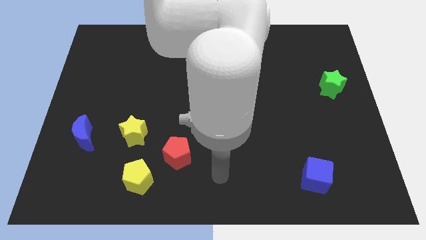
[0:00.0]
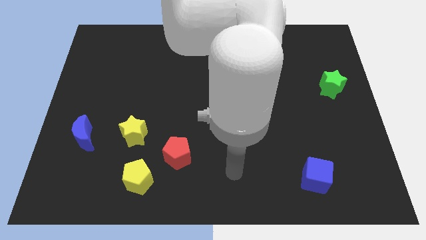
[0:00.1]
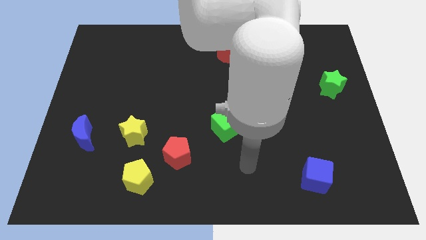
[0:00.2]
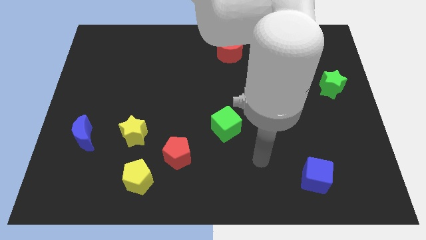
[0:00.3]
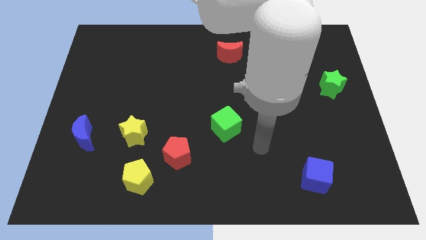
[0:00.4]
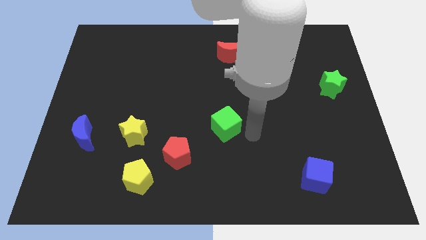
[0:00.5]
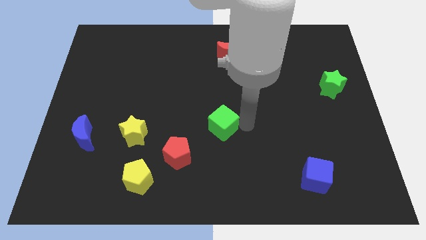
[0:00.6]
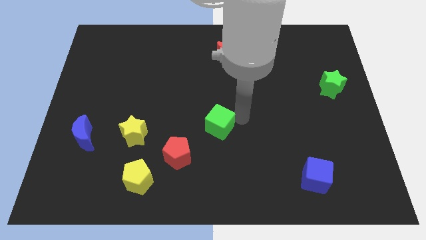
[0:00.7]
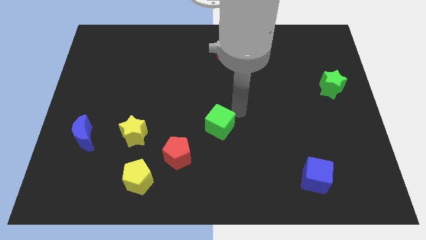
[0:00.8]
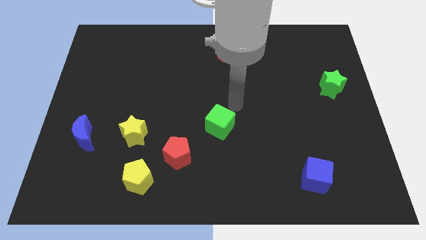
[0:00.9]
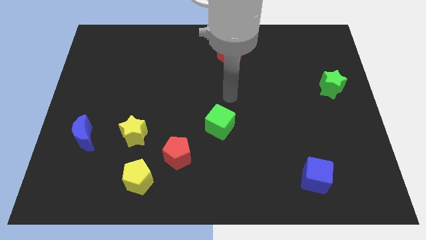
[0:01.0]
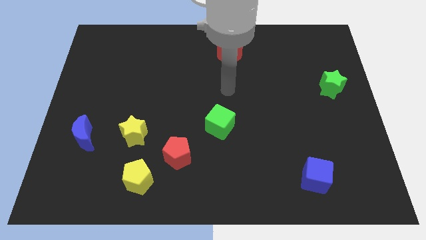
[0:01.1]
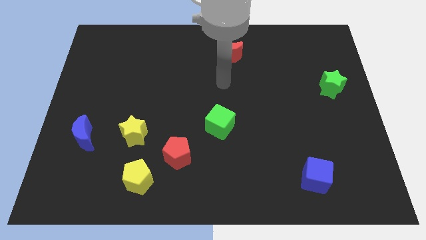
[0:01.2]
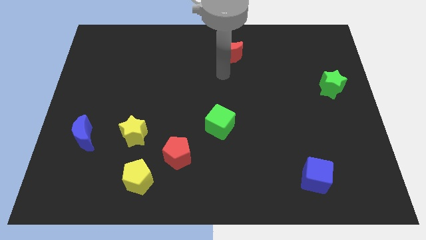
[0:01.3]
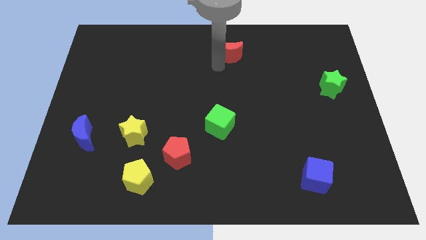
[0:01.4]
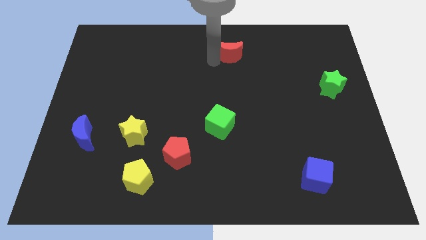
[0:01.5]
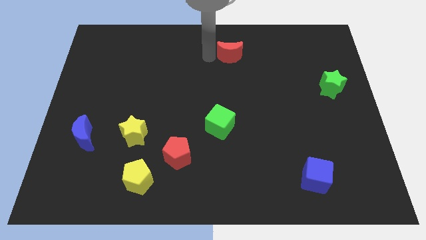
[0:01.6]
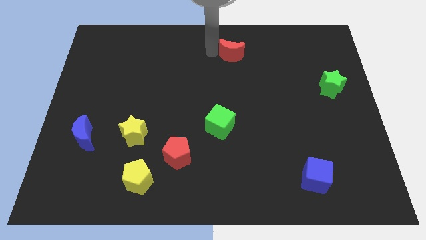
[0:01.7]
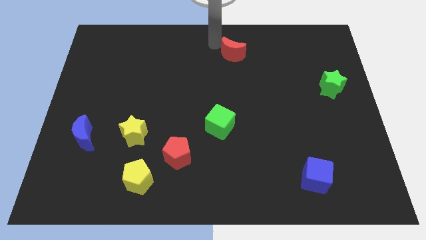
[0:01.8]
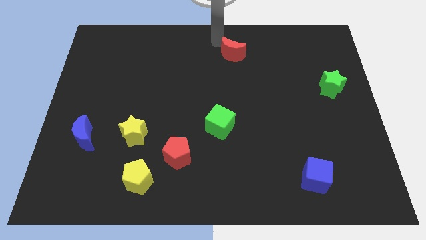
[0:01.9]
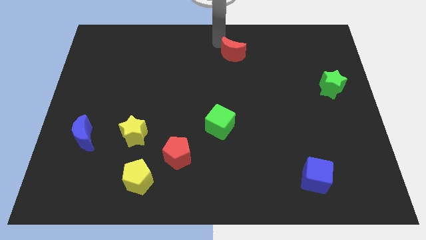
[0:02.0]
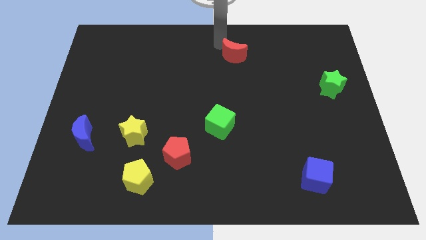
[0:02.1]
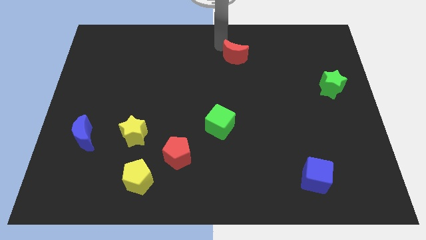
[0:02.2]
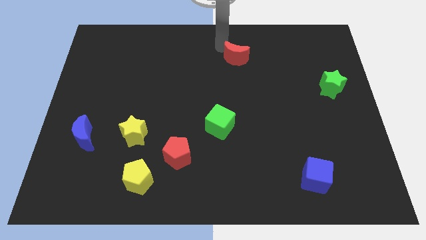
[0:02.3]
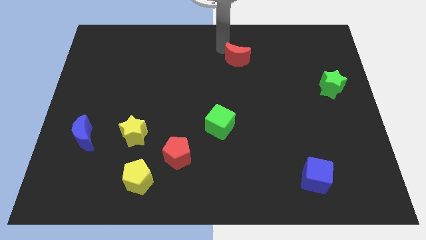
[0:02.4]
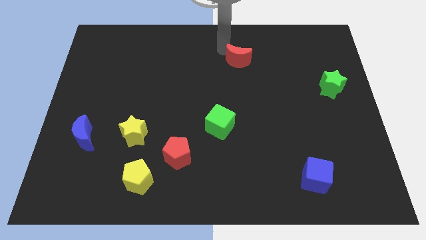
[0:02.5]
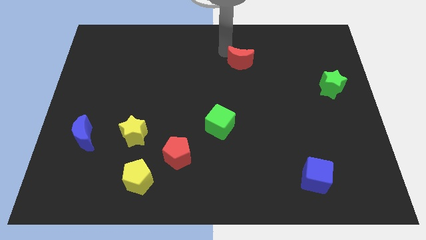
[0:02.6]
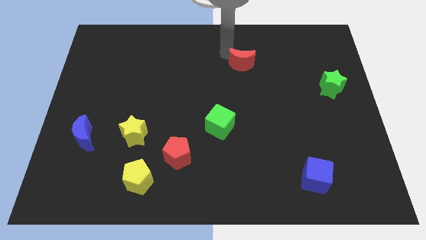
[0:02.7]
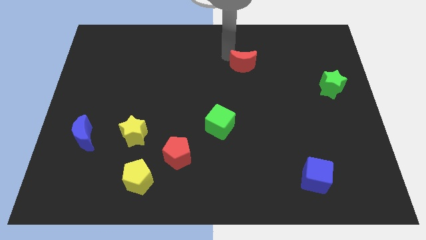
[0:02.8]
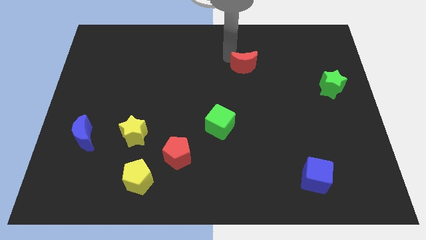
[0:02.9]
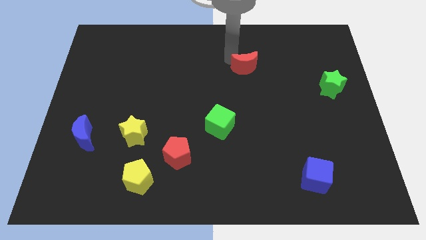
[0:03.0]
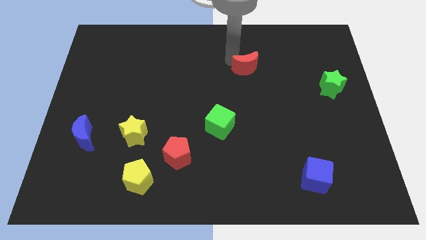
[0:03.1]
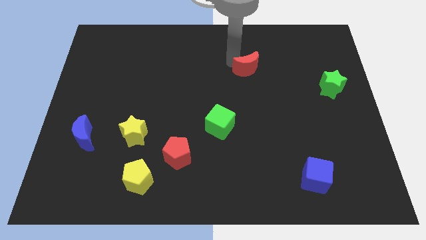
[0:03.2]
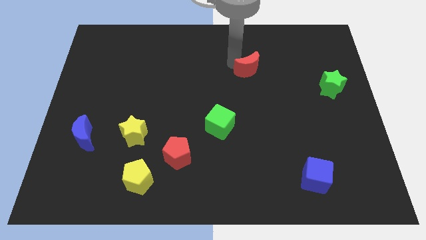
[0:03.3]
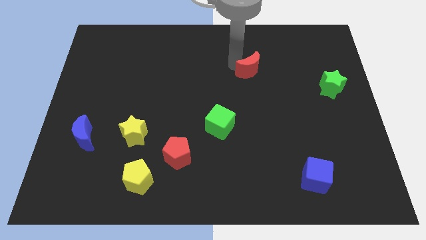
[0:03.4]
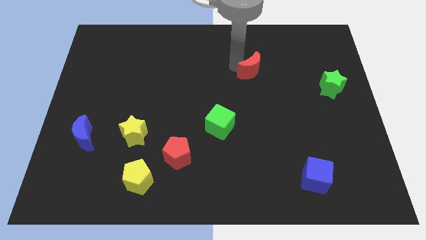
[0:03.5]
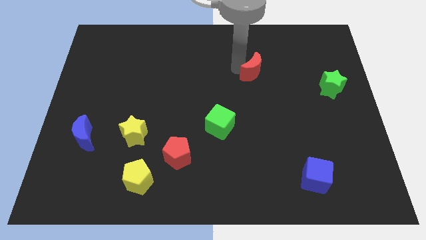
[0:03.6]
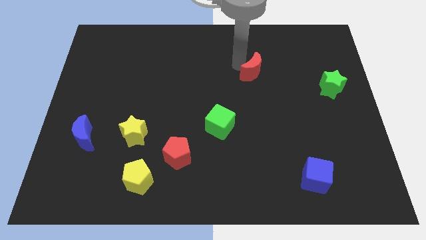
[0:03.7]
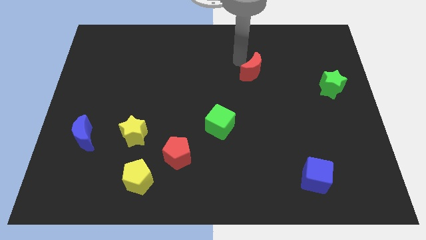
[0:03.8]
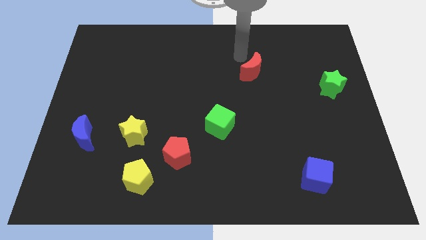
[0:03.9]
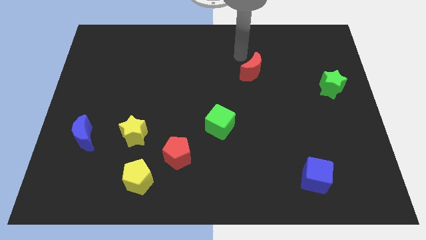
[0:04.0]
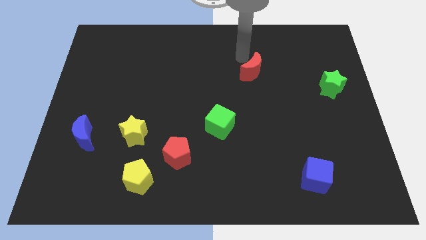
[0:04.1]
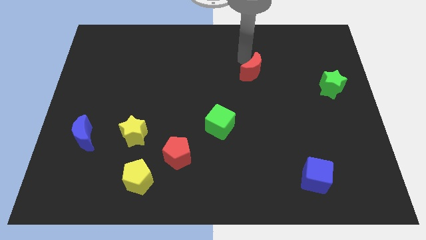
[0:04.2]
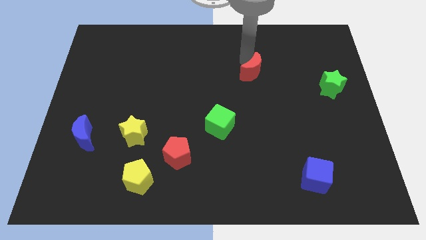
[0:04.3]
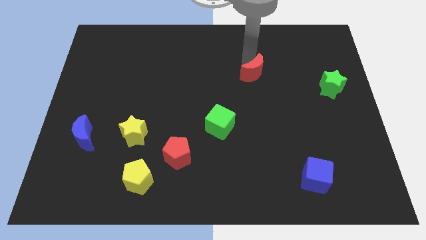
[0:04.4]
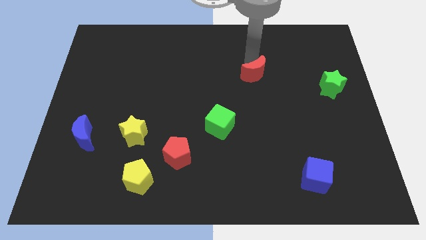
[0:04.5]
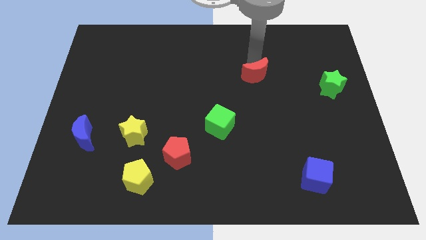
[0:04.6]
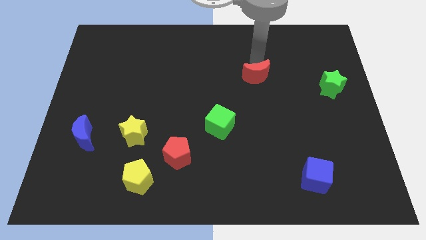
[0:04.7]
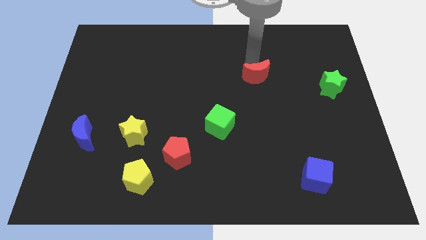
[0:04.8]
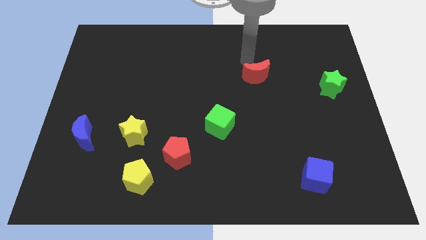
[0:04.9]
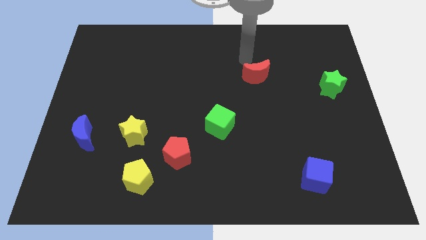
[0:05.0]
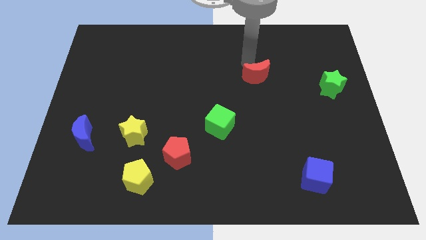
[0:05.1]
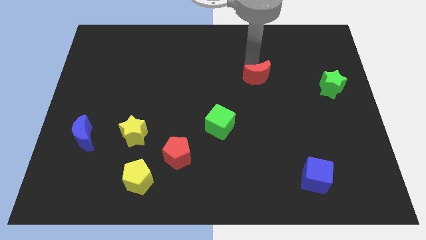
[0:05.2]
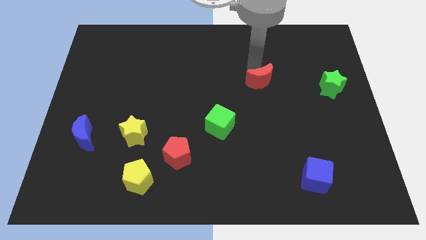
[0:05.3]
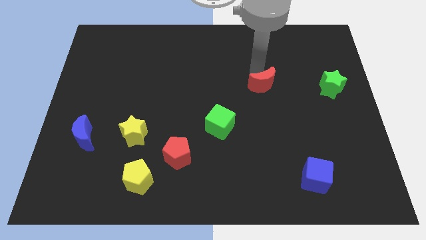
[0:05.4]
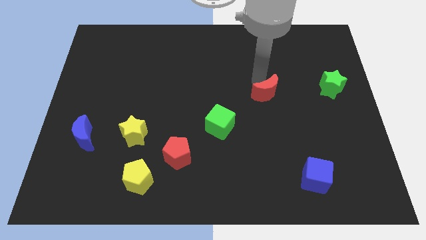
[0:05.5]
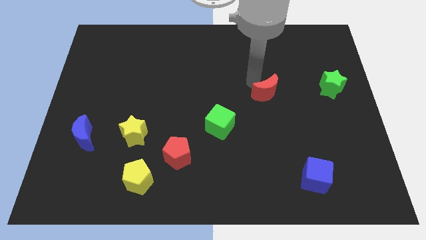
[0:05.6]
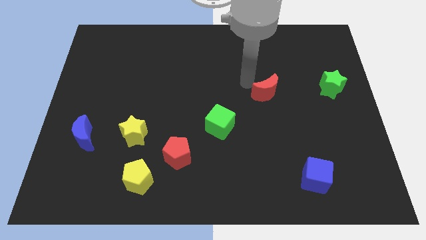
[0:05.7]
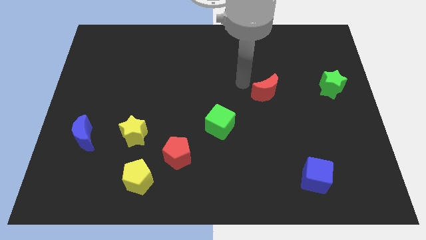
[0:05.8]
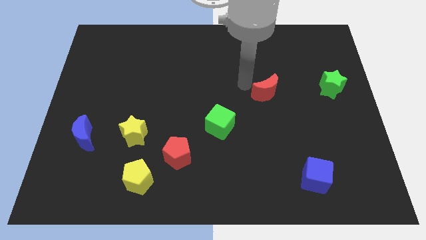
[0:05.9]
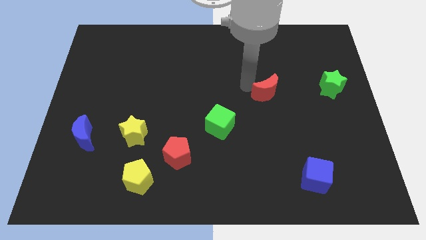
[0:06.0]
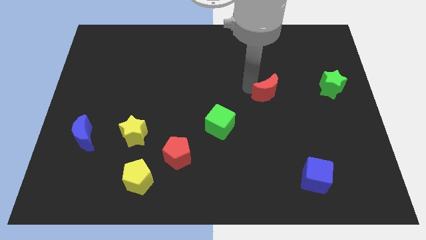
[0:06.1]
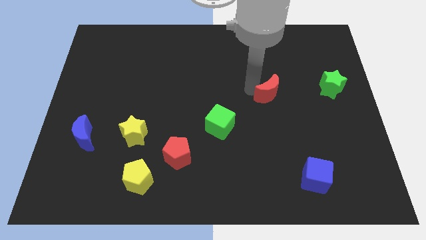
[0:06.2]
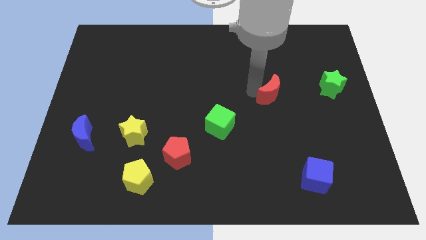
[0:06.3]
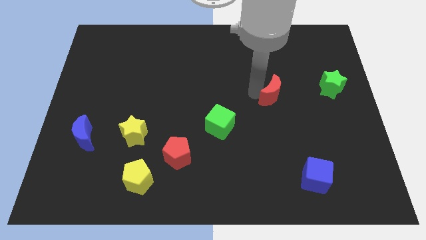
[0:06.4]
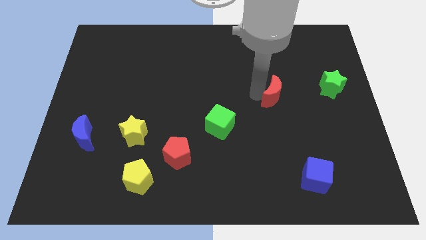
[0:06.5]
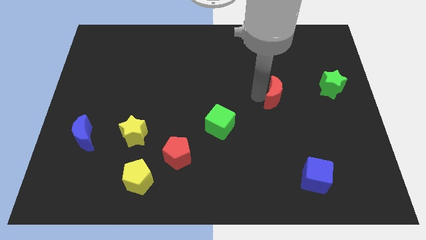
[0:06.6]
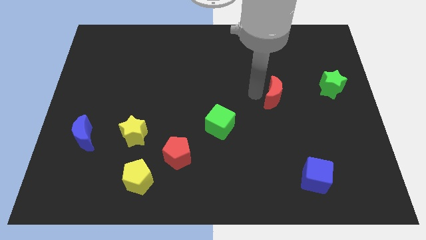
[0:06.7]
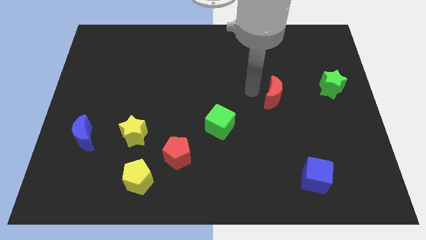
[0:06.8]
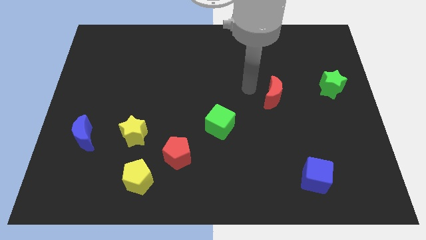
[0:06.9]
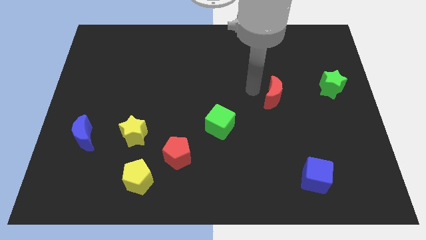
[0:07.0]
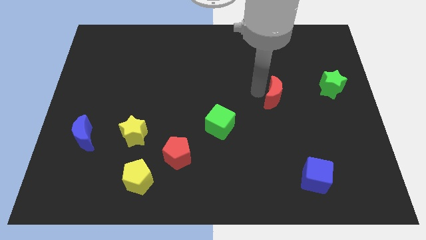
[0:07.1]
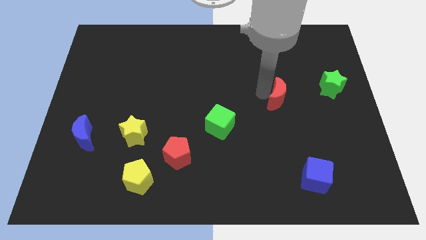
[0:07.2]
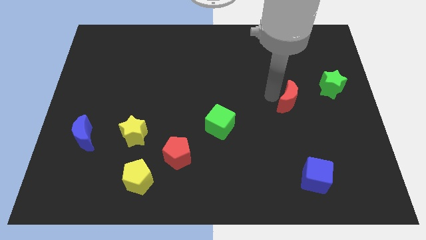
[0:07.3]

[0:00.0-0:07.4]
push the red moon down and then right

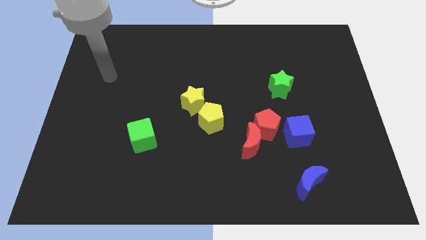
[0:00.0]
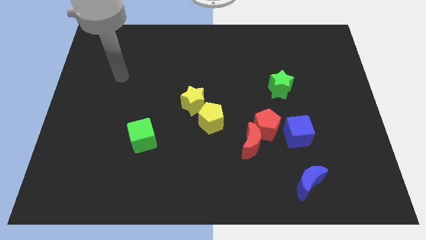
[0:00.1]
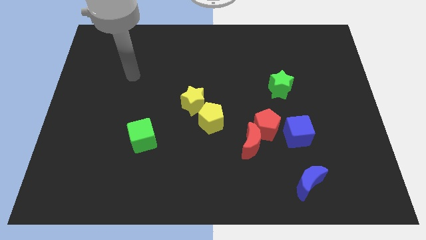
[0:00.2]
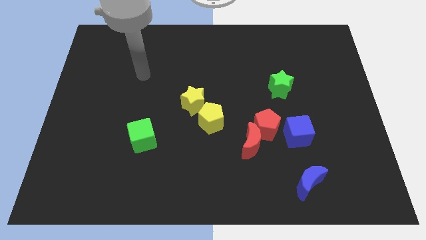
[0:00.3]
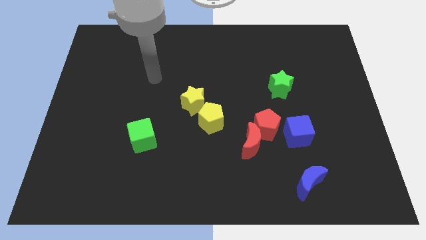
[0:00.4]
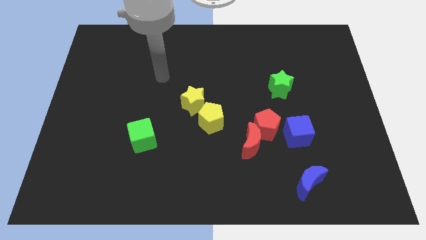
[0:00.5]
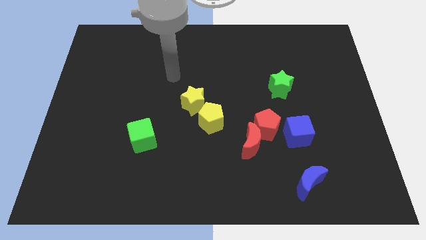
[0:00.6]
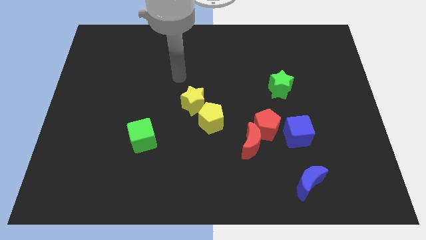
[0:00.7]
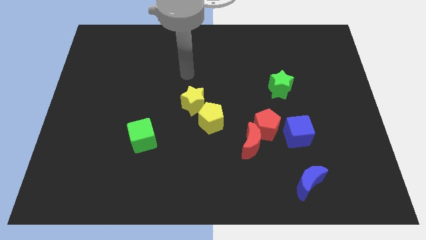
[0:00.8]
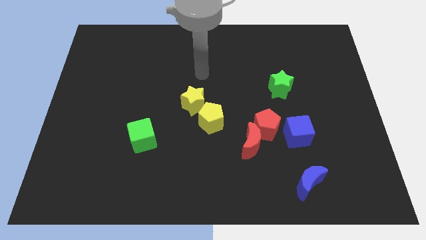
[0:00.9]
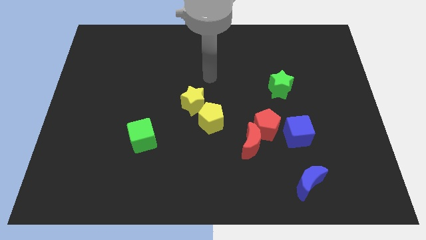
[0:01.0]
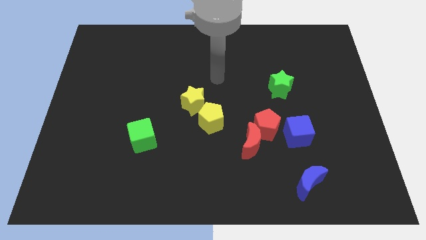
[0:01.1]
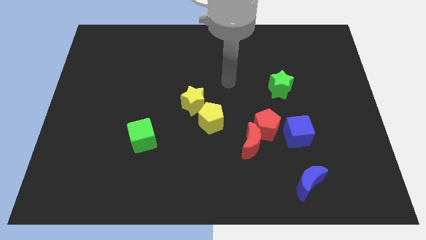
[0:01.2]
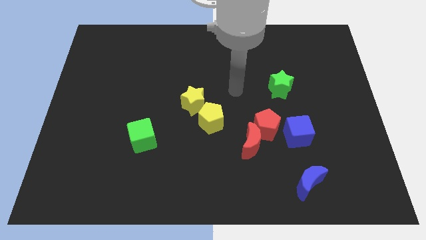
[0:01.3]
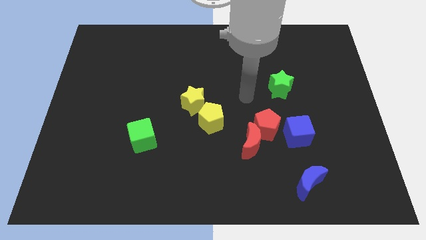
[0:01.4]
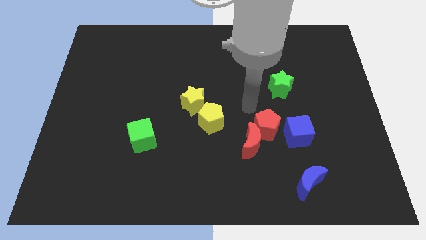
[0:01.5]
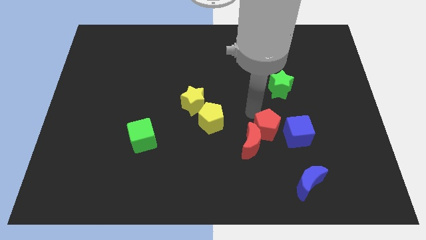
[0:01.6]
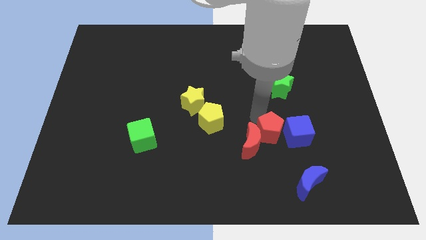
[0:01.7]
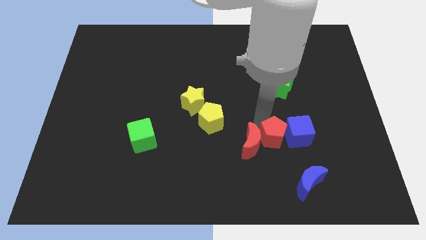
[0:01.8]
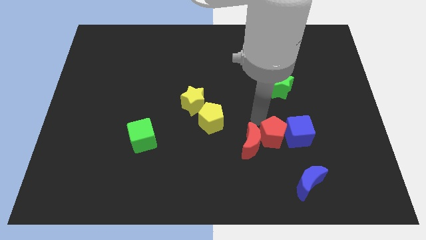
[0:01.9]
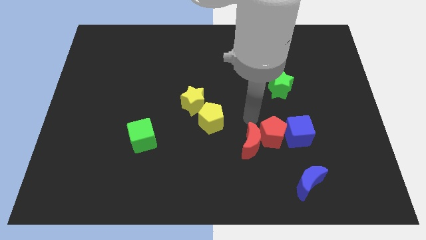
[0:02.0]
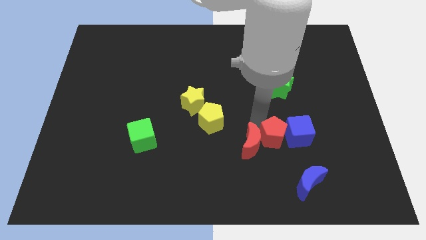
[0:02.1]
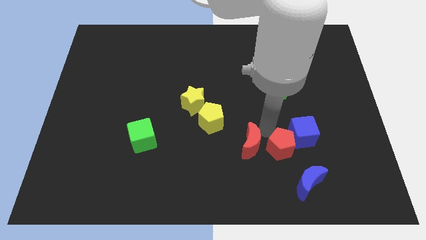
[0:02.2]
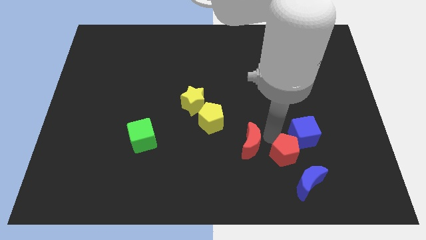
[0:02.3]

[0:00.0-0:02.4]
slide the red pentagon downwards and right a little
